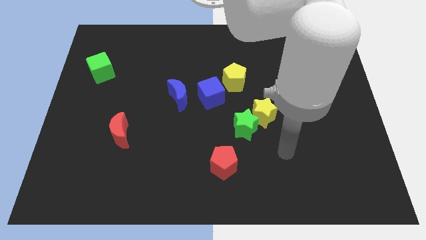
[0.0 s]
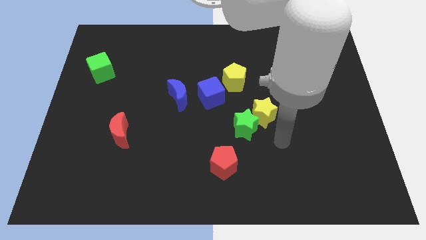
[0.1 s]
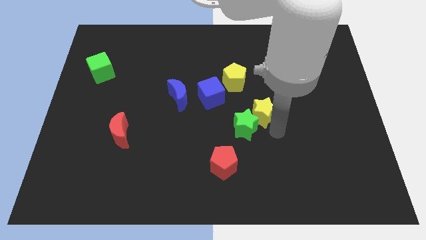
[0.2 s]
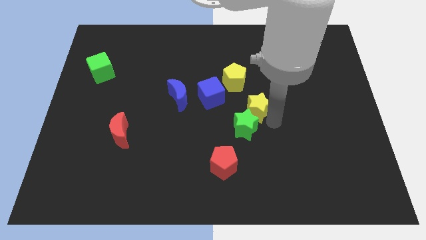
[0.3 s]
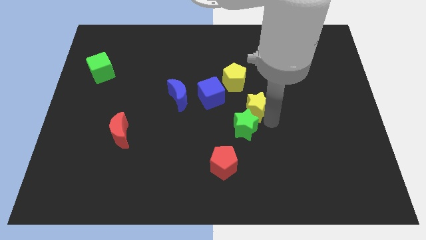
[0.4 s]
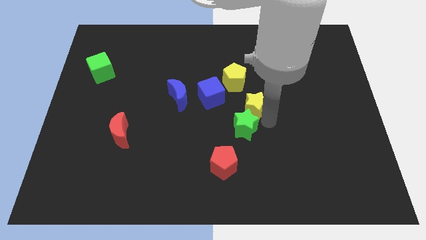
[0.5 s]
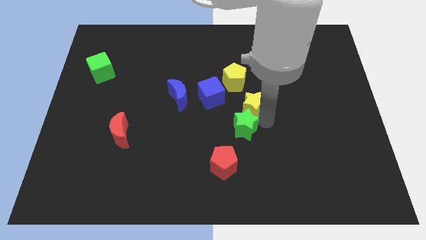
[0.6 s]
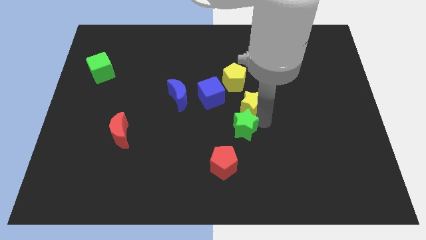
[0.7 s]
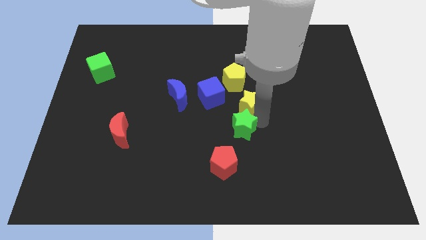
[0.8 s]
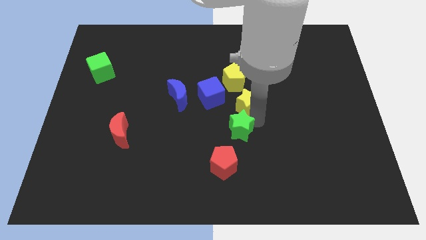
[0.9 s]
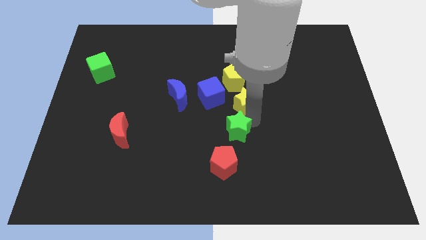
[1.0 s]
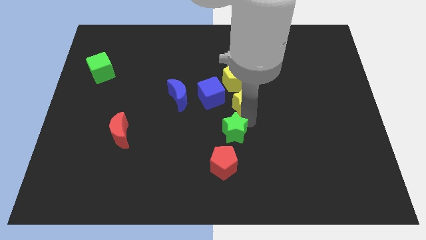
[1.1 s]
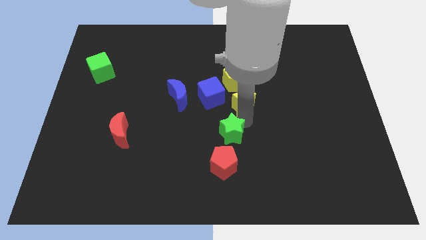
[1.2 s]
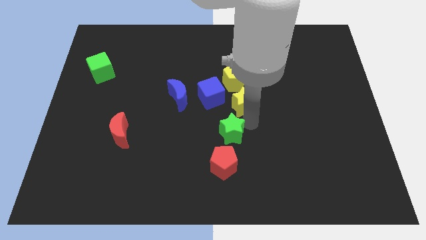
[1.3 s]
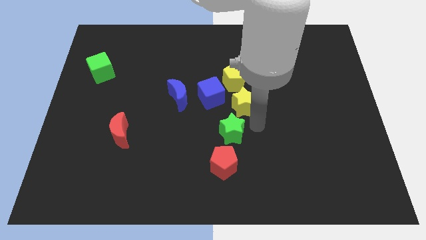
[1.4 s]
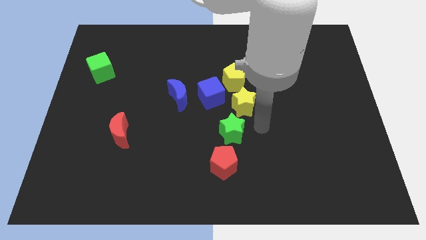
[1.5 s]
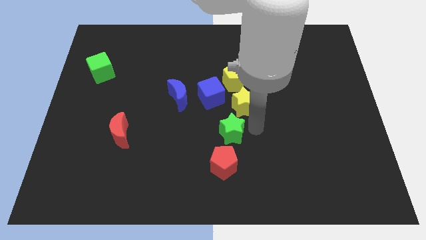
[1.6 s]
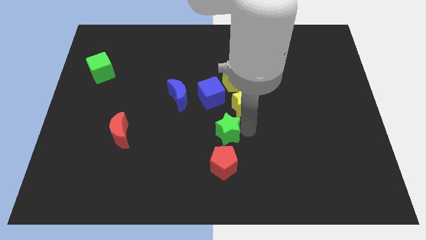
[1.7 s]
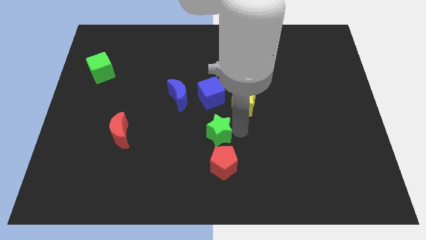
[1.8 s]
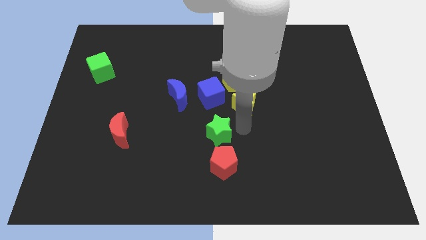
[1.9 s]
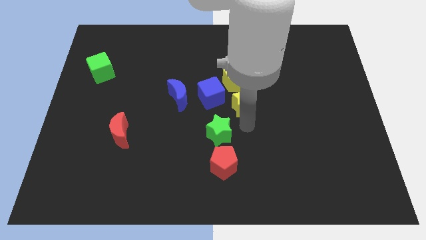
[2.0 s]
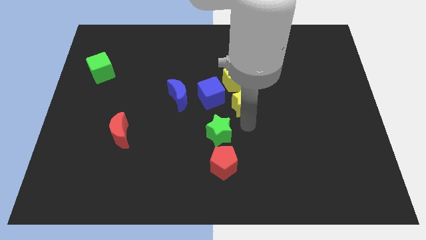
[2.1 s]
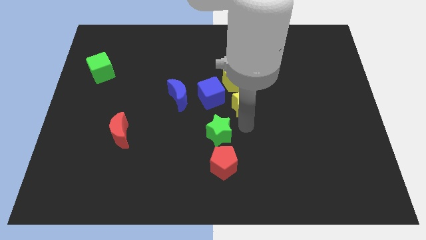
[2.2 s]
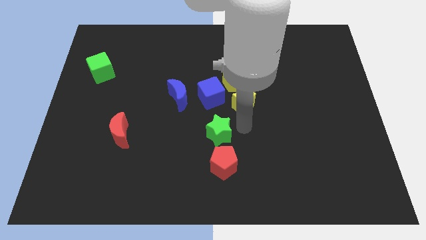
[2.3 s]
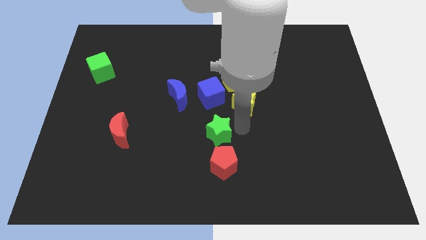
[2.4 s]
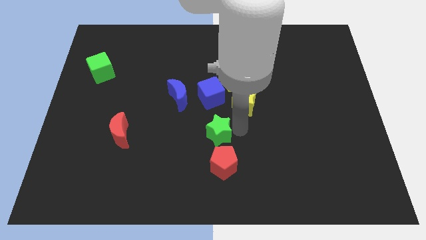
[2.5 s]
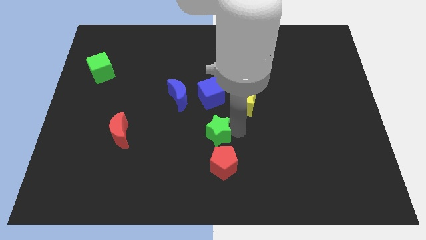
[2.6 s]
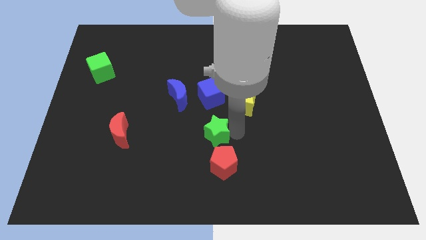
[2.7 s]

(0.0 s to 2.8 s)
move the green star away from the yellow star

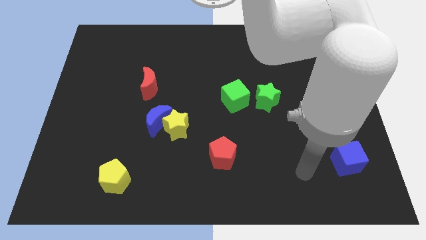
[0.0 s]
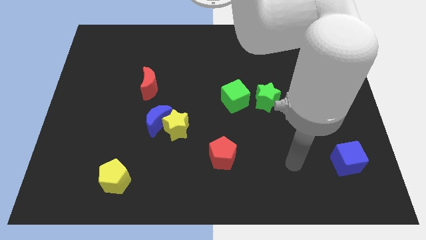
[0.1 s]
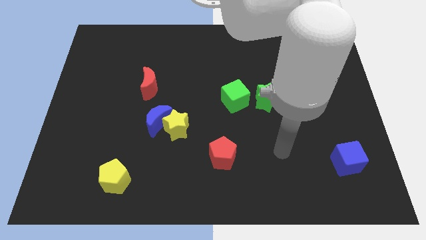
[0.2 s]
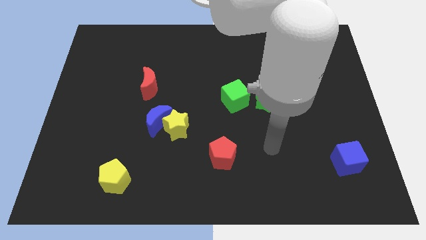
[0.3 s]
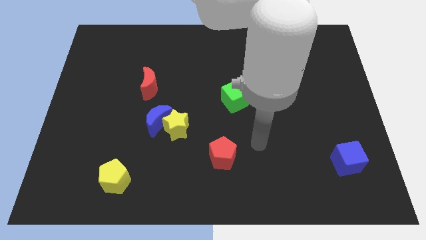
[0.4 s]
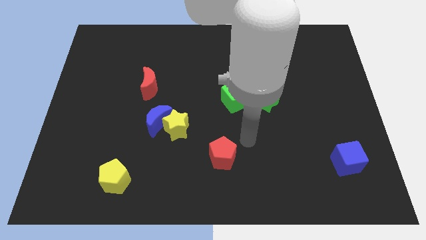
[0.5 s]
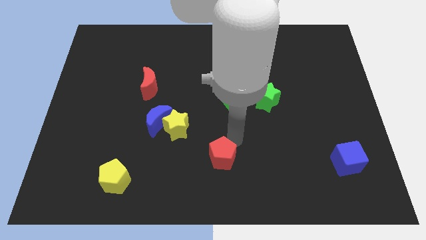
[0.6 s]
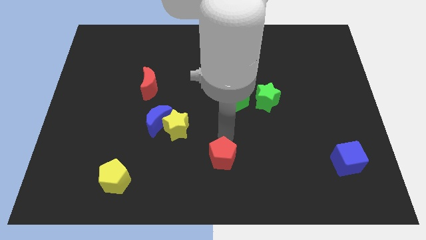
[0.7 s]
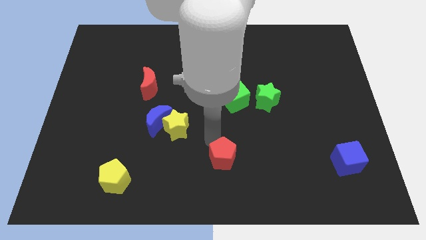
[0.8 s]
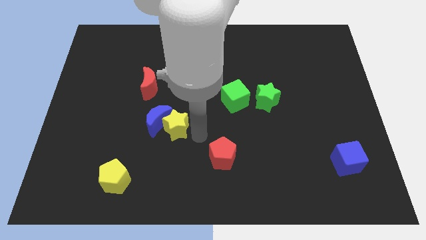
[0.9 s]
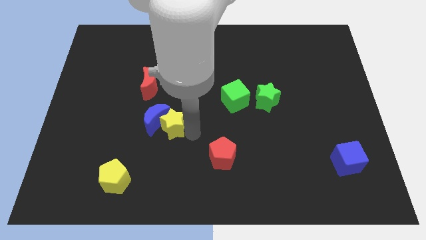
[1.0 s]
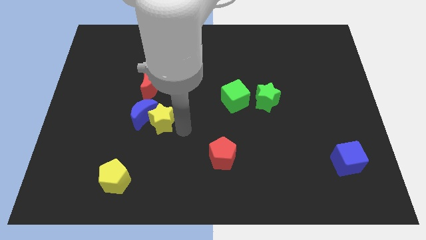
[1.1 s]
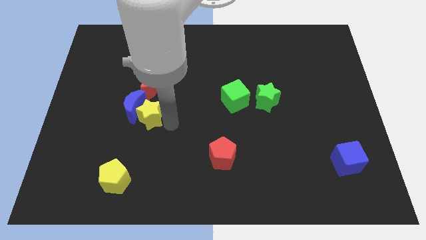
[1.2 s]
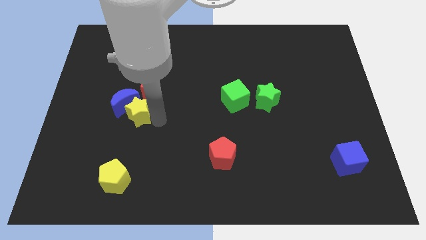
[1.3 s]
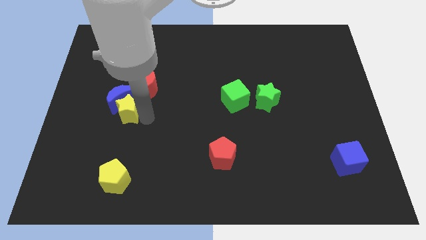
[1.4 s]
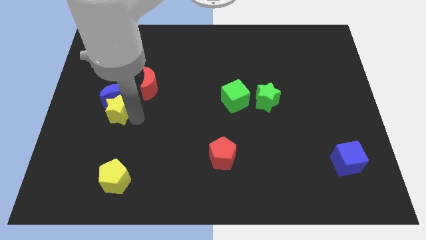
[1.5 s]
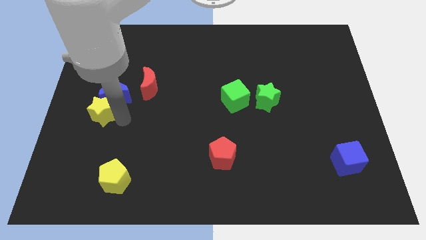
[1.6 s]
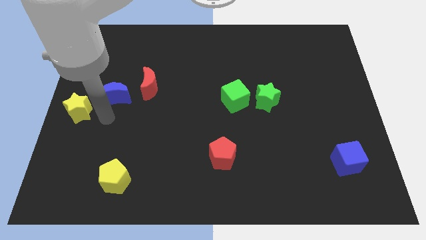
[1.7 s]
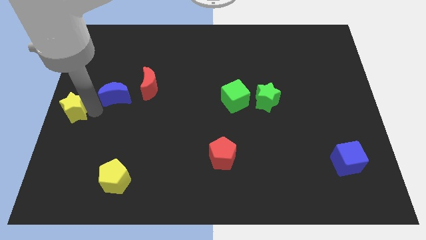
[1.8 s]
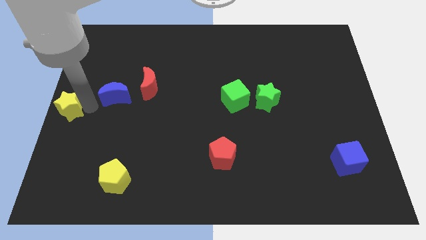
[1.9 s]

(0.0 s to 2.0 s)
pull the blue moon apart from the yellow star

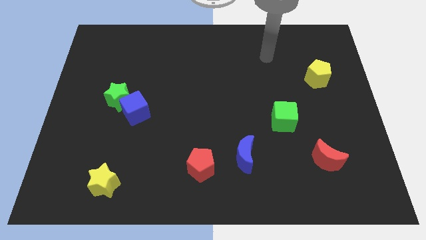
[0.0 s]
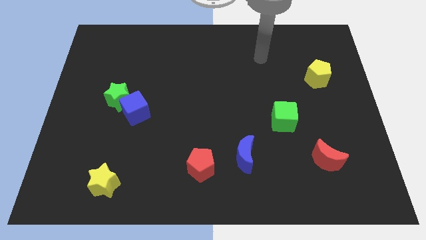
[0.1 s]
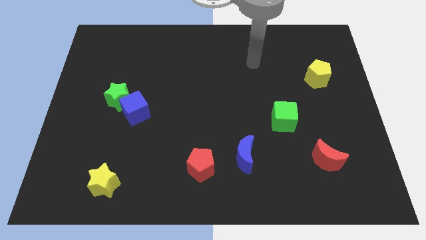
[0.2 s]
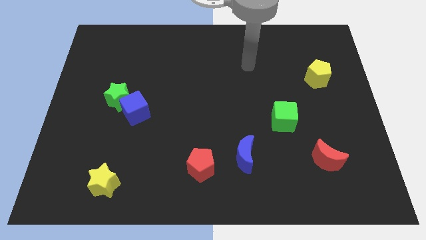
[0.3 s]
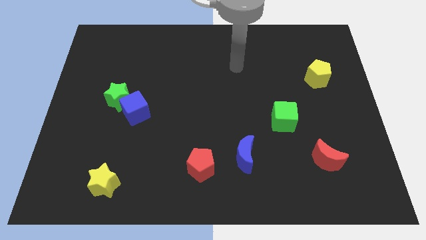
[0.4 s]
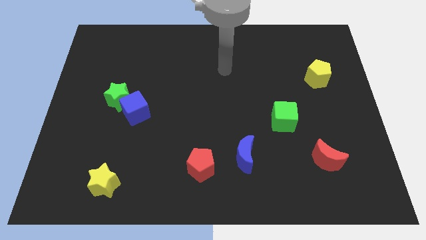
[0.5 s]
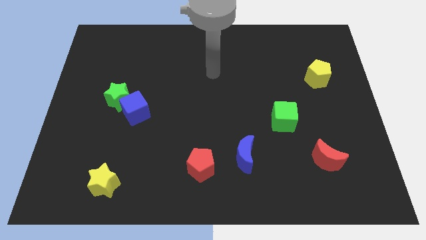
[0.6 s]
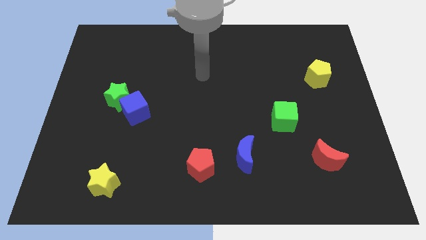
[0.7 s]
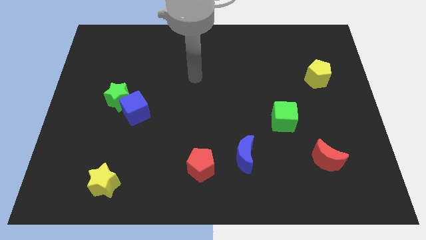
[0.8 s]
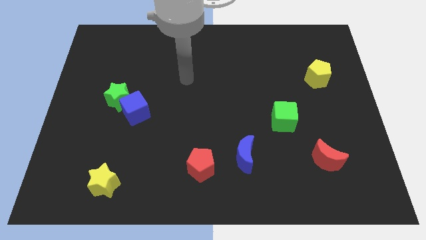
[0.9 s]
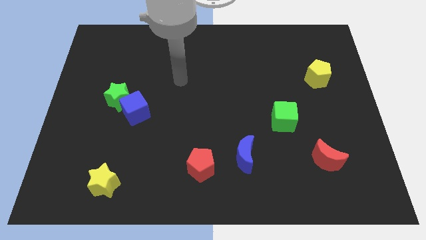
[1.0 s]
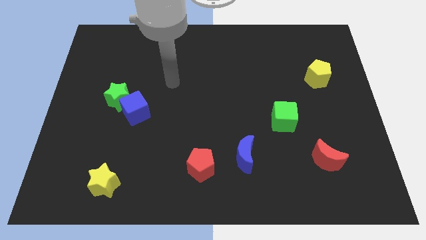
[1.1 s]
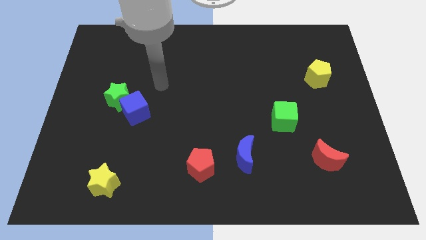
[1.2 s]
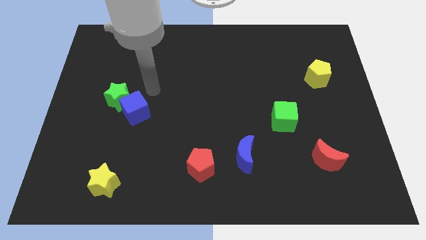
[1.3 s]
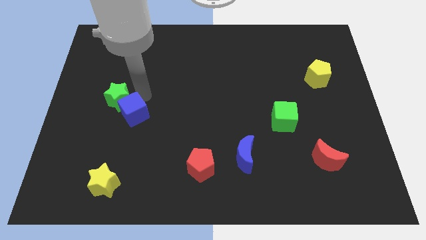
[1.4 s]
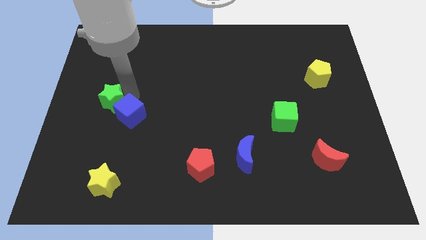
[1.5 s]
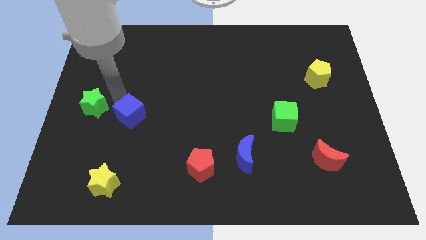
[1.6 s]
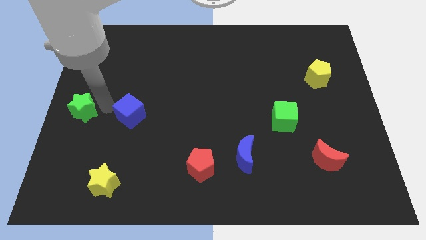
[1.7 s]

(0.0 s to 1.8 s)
separate the blue cube from the green star

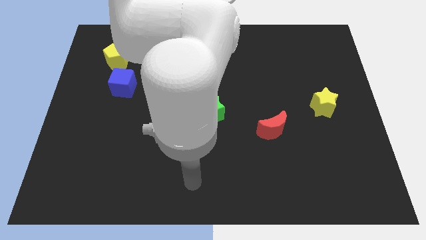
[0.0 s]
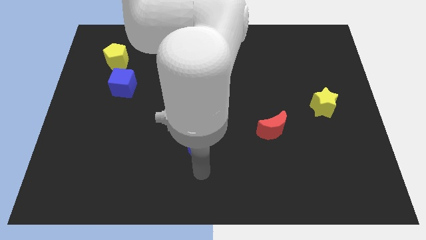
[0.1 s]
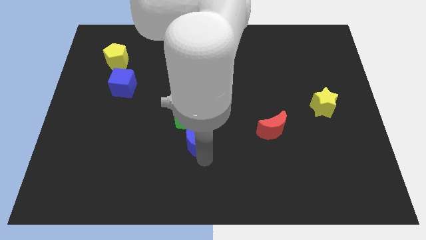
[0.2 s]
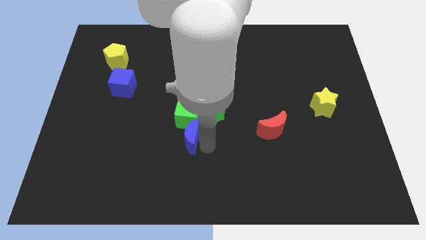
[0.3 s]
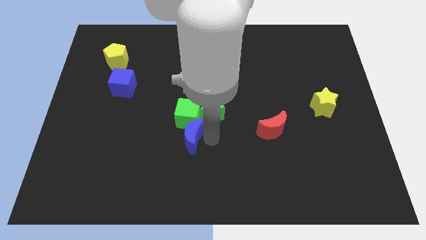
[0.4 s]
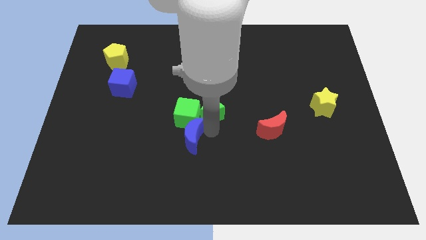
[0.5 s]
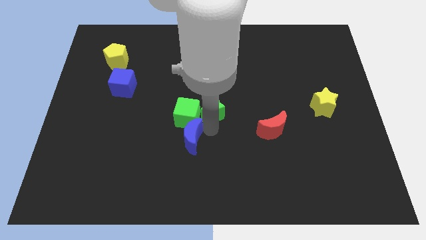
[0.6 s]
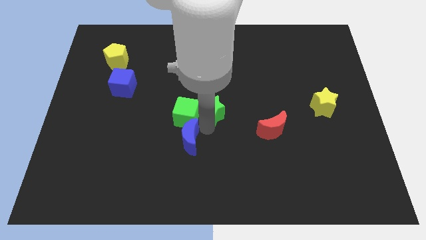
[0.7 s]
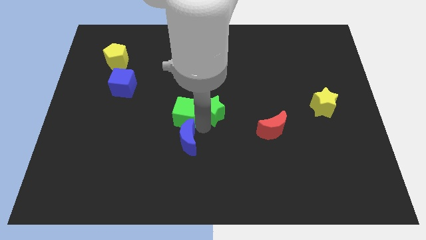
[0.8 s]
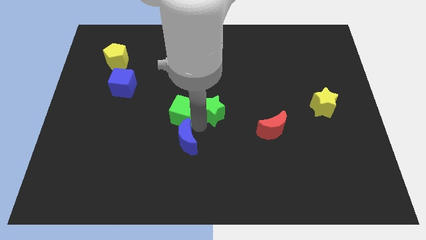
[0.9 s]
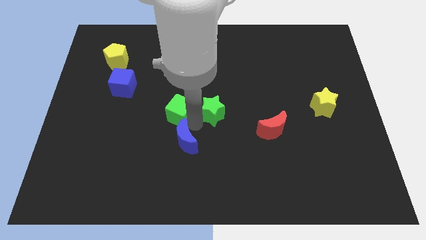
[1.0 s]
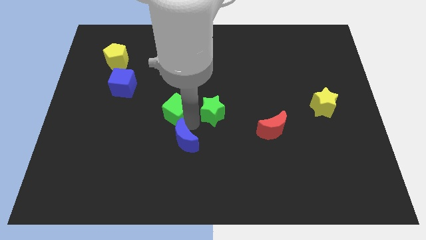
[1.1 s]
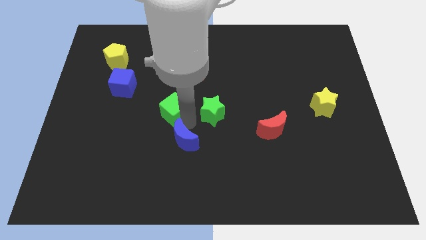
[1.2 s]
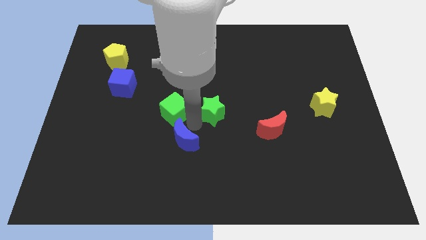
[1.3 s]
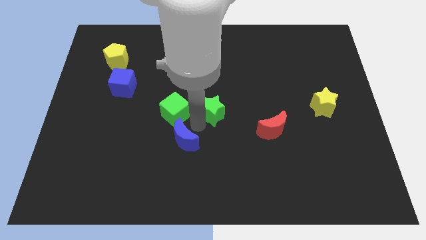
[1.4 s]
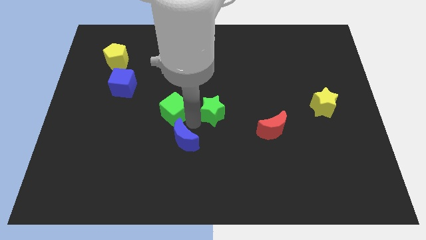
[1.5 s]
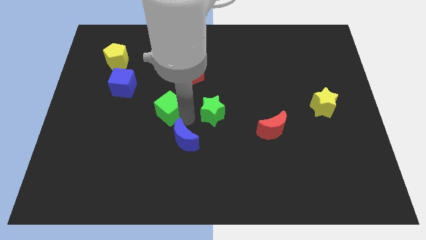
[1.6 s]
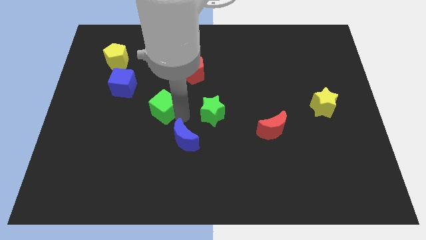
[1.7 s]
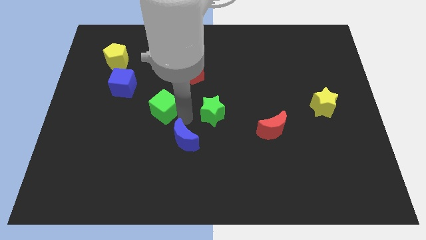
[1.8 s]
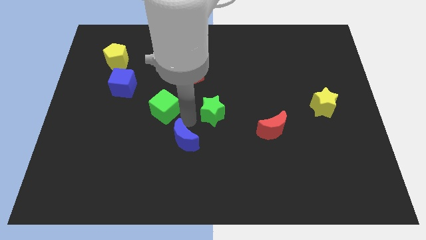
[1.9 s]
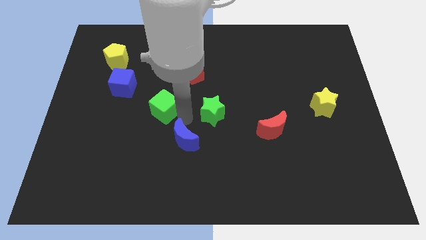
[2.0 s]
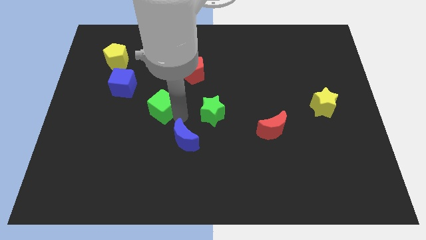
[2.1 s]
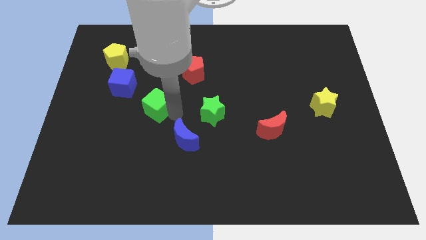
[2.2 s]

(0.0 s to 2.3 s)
pull the green cube apart from the green star and blue moon

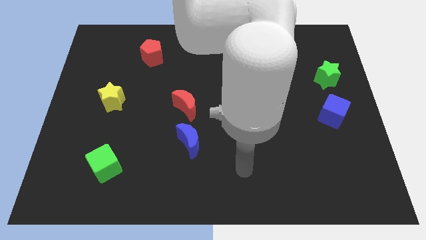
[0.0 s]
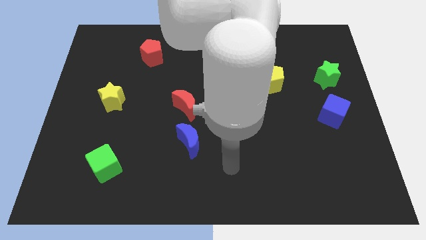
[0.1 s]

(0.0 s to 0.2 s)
pull the red moon apart from the blue moon

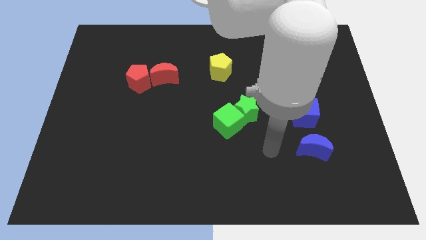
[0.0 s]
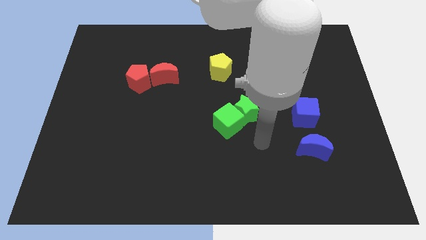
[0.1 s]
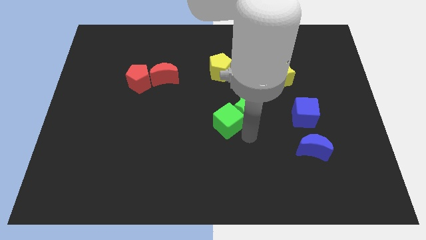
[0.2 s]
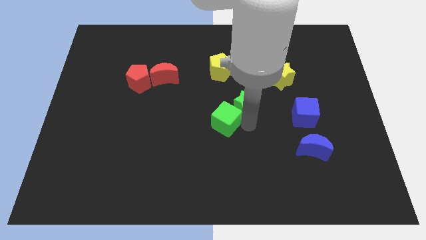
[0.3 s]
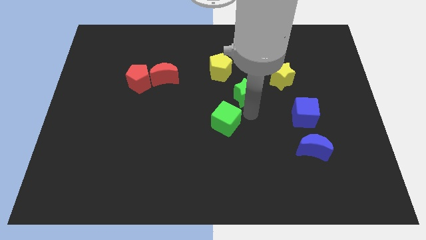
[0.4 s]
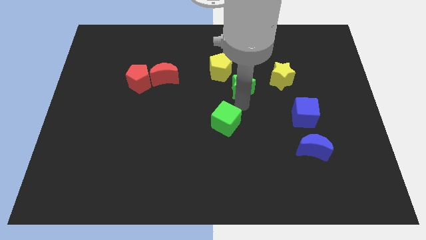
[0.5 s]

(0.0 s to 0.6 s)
move the green cube away from the green star
